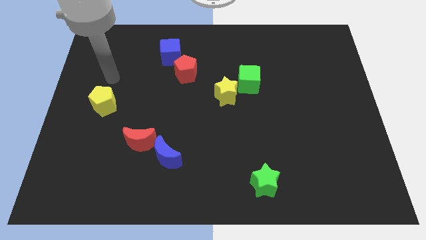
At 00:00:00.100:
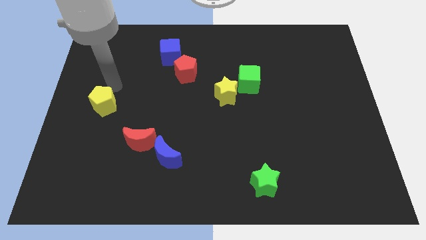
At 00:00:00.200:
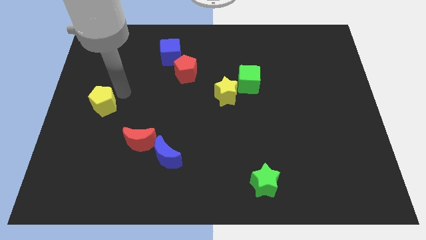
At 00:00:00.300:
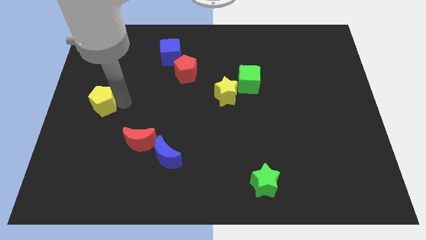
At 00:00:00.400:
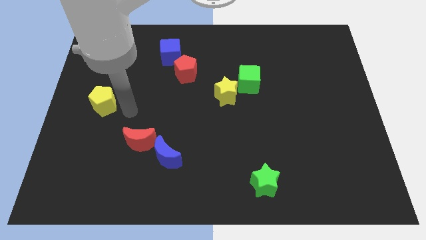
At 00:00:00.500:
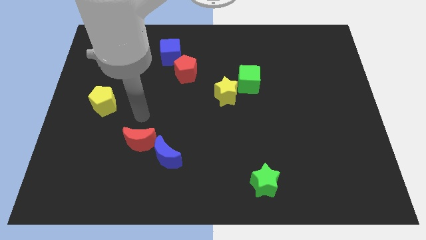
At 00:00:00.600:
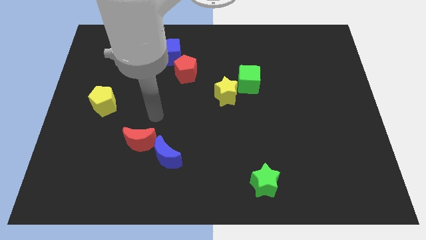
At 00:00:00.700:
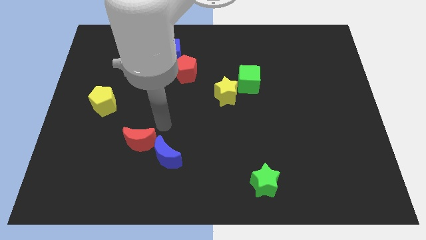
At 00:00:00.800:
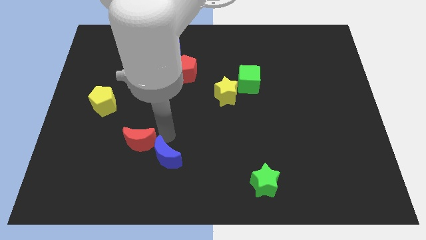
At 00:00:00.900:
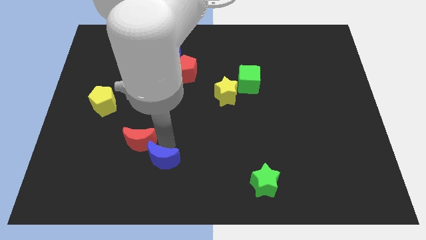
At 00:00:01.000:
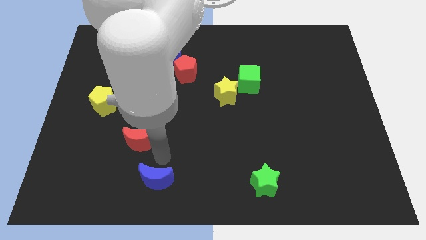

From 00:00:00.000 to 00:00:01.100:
pull the red moon apart from the blue moon

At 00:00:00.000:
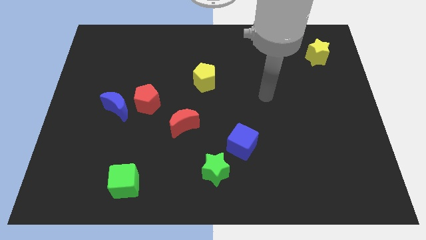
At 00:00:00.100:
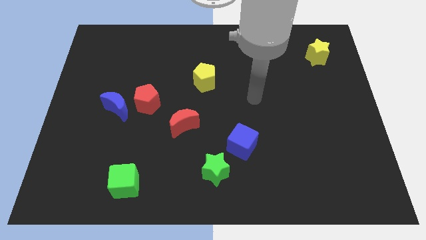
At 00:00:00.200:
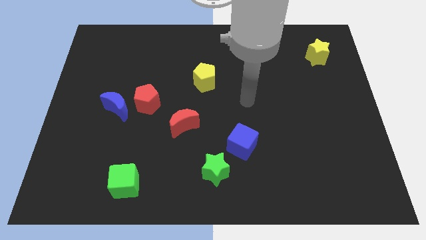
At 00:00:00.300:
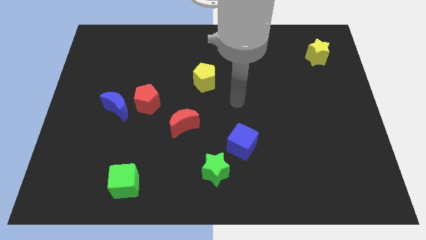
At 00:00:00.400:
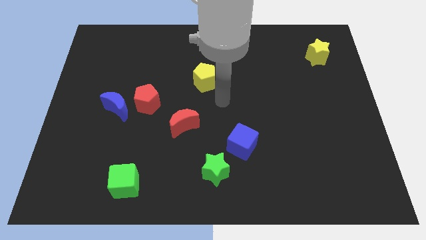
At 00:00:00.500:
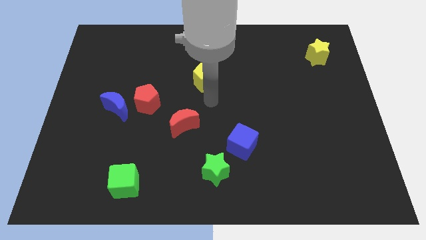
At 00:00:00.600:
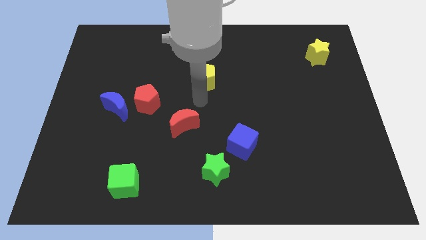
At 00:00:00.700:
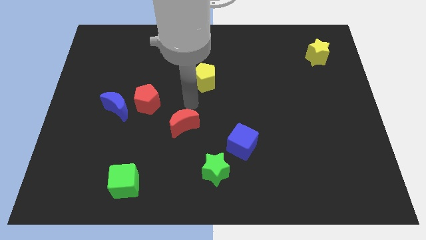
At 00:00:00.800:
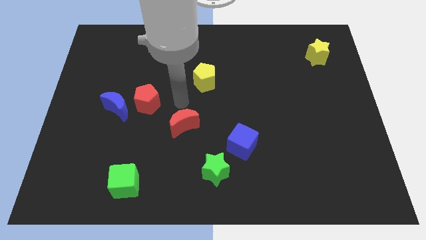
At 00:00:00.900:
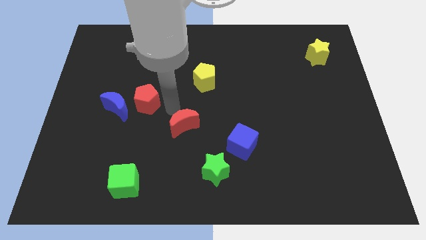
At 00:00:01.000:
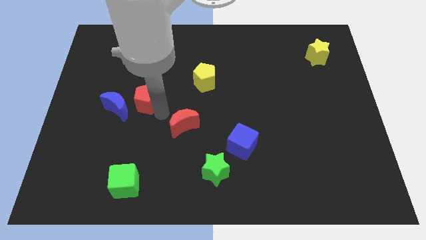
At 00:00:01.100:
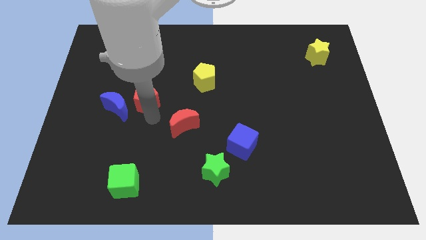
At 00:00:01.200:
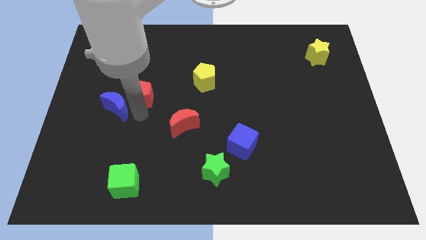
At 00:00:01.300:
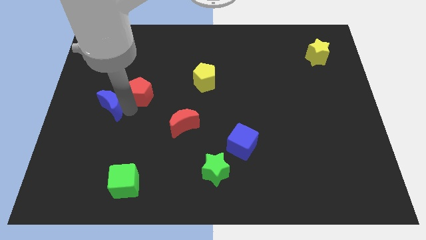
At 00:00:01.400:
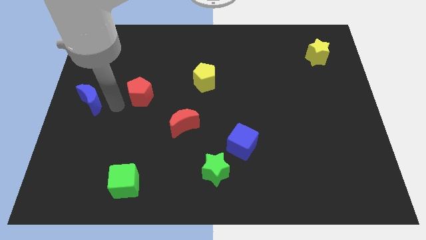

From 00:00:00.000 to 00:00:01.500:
move the red pentagon away from the blue moon

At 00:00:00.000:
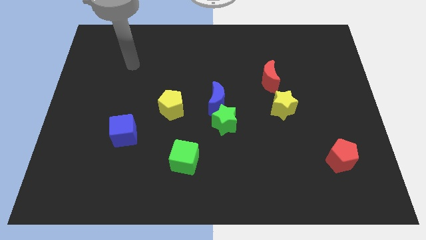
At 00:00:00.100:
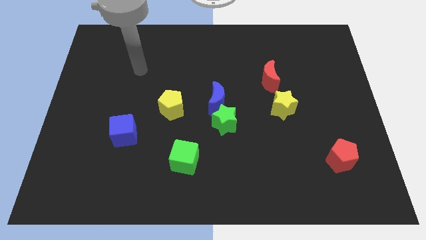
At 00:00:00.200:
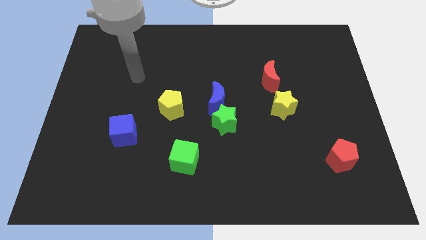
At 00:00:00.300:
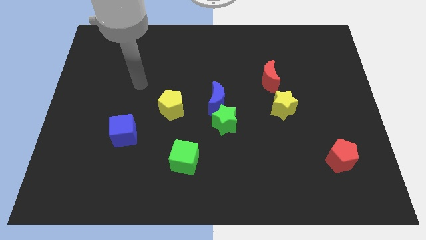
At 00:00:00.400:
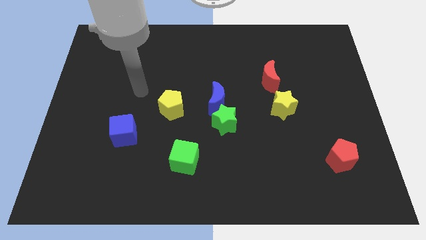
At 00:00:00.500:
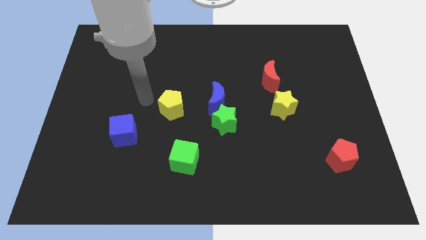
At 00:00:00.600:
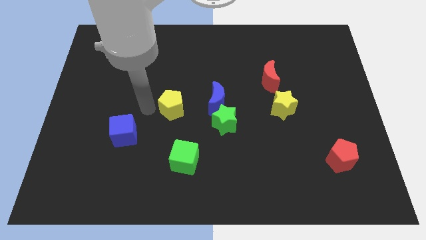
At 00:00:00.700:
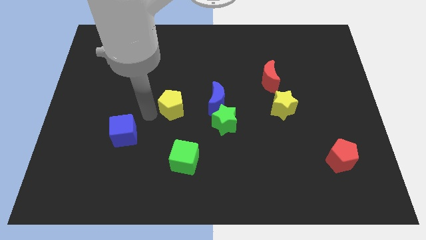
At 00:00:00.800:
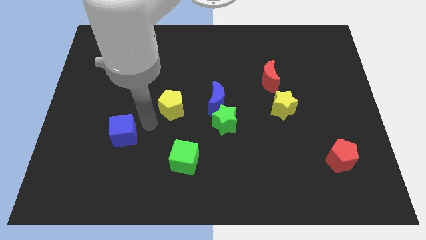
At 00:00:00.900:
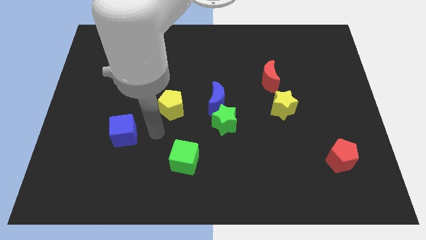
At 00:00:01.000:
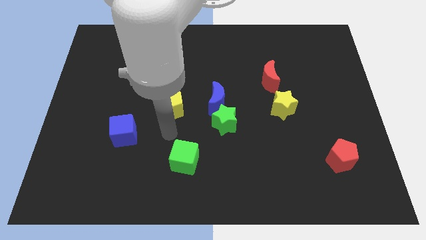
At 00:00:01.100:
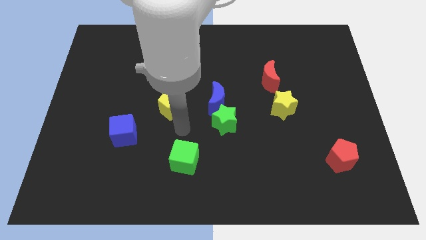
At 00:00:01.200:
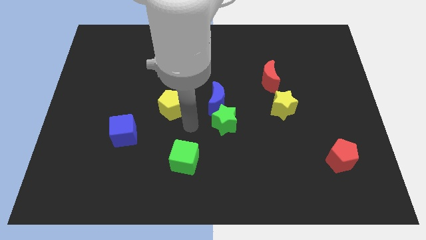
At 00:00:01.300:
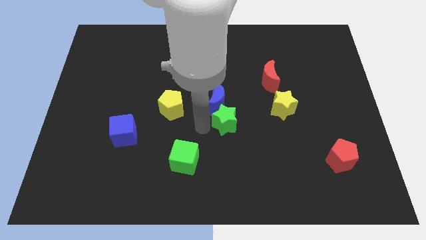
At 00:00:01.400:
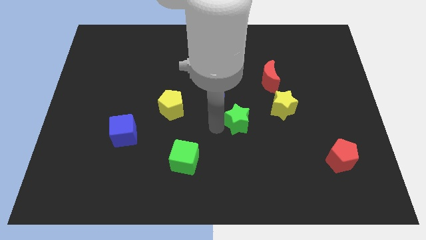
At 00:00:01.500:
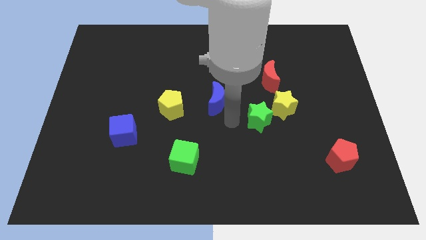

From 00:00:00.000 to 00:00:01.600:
pull the blue moon apart from the green star

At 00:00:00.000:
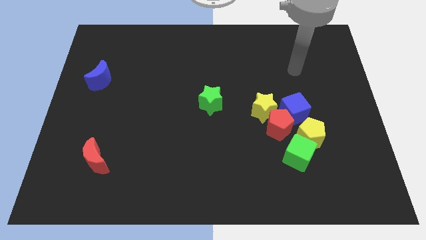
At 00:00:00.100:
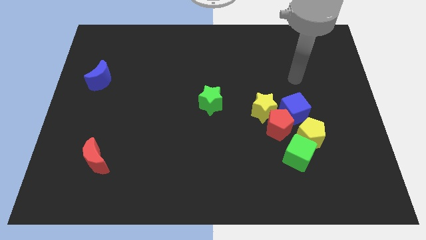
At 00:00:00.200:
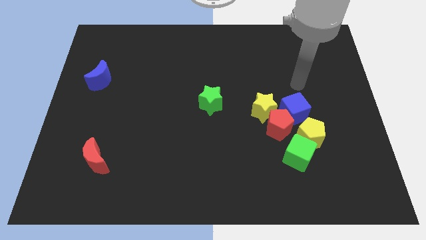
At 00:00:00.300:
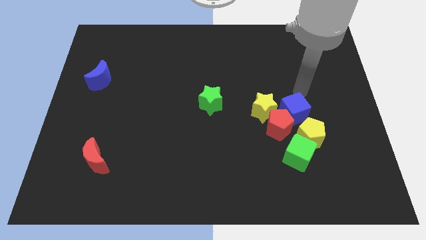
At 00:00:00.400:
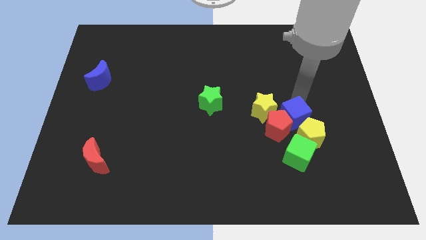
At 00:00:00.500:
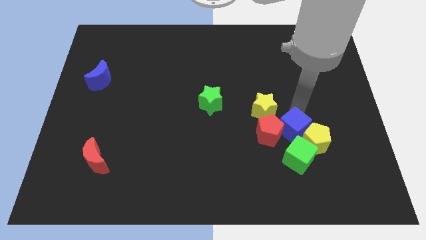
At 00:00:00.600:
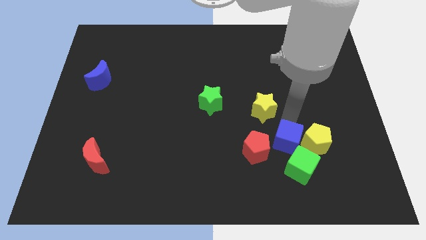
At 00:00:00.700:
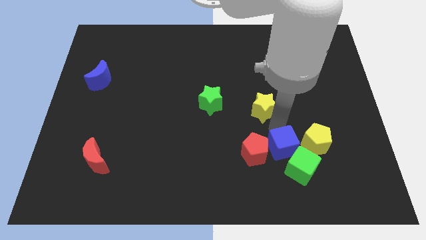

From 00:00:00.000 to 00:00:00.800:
pull the yellow star apart from the red pentagon and blue cube

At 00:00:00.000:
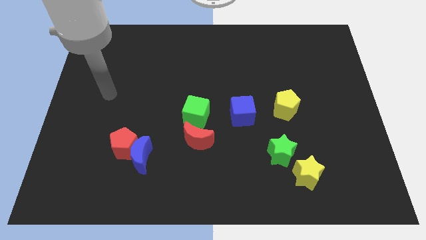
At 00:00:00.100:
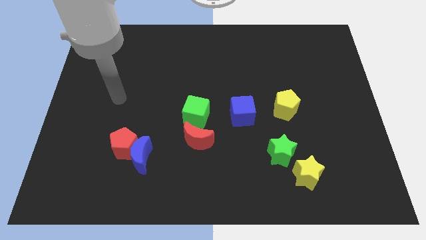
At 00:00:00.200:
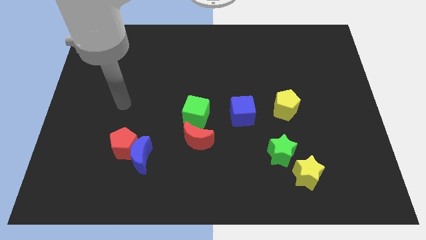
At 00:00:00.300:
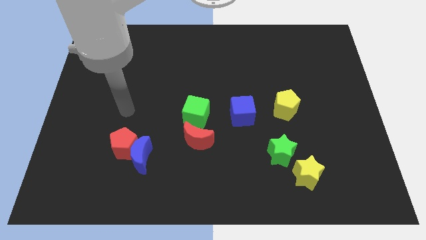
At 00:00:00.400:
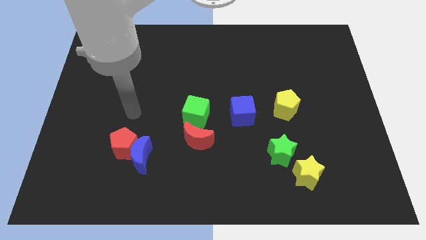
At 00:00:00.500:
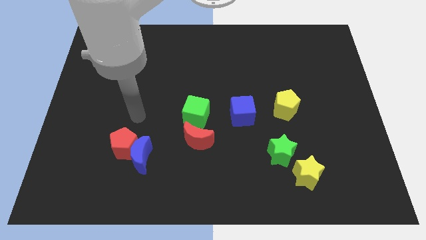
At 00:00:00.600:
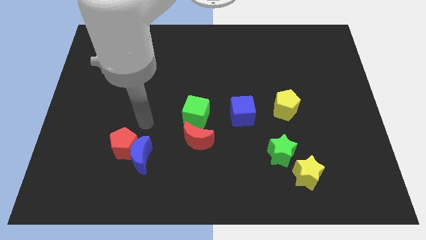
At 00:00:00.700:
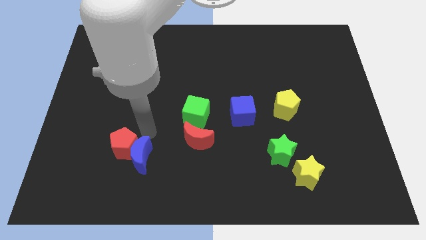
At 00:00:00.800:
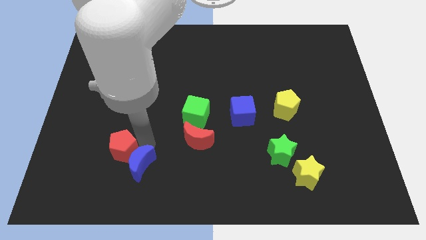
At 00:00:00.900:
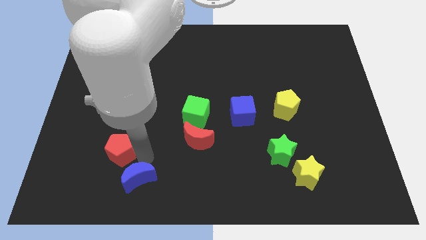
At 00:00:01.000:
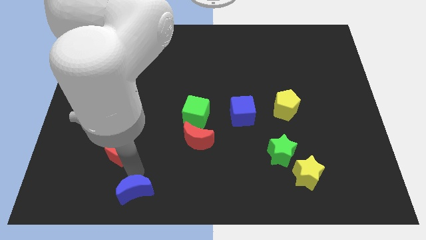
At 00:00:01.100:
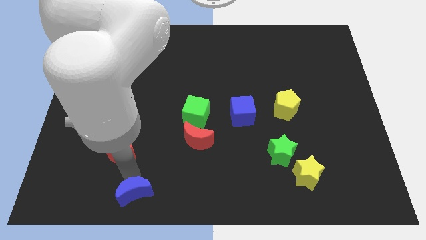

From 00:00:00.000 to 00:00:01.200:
pull the red pentagon apart from the blue moon

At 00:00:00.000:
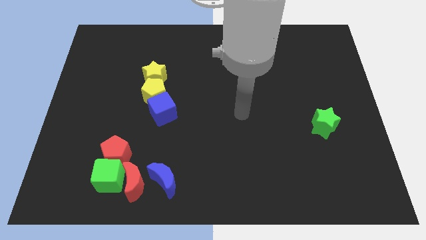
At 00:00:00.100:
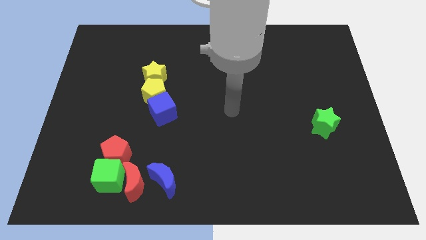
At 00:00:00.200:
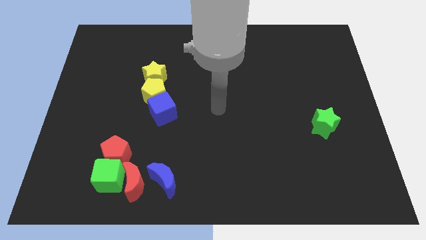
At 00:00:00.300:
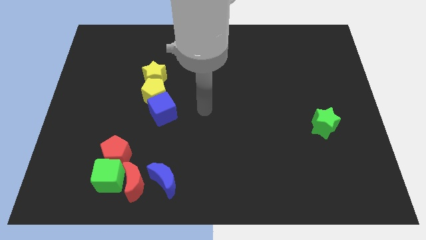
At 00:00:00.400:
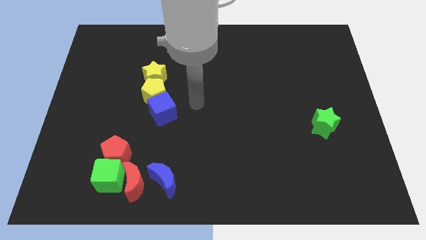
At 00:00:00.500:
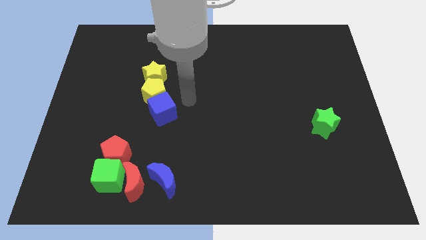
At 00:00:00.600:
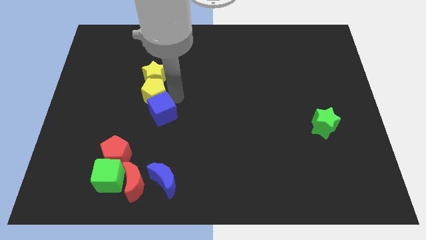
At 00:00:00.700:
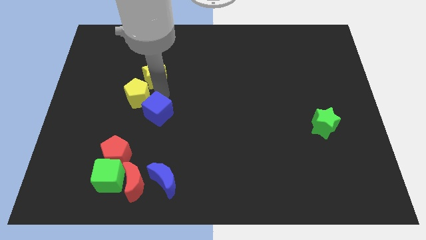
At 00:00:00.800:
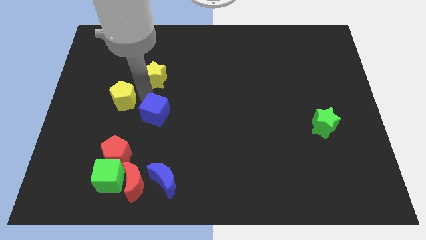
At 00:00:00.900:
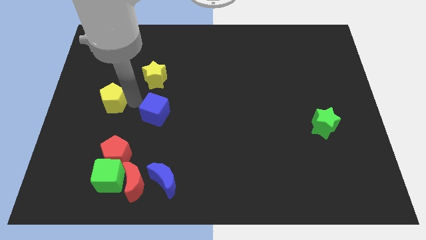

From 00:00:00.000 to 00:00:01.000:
pull the blue cube apart from the yellow pentagon

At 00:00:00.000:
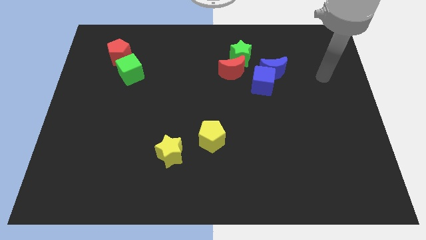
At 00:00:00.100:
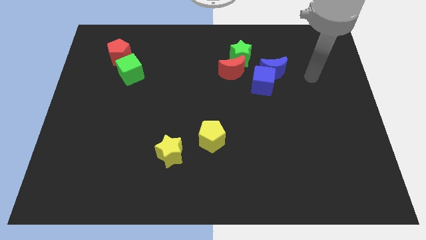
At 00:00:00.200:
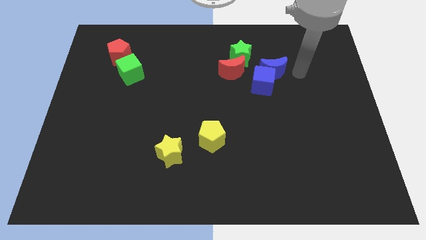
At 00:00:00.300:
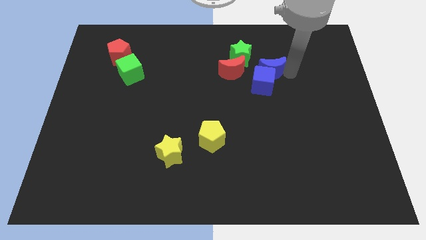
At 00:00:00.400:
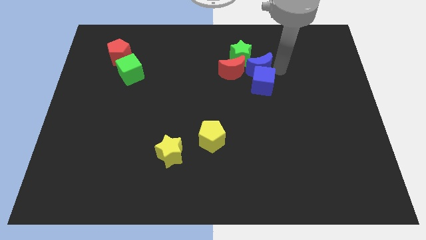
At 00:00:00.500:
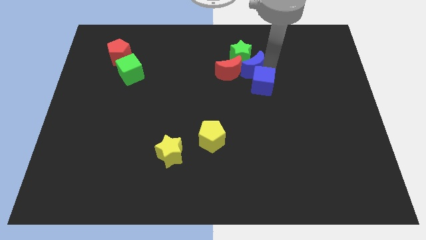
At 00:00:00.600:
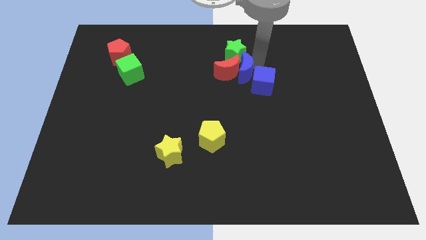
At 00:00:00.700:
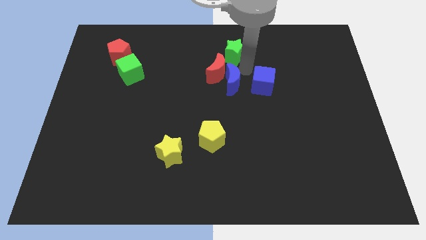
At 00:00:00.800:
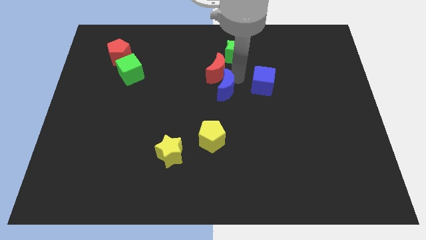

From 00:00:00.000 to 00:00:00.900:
separate the blue cube from the blue moon and red moon

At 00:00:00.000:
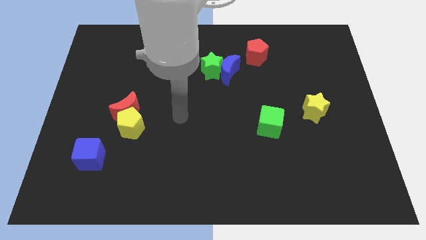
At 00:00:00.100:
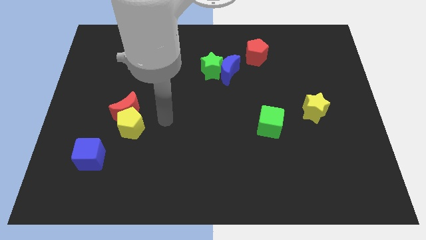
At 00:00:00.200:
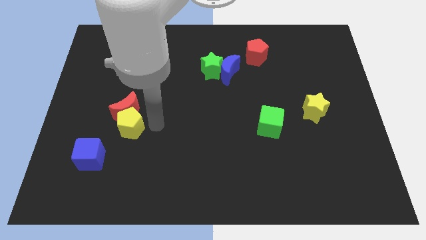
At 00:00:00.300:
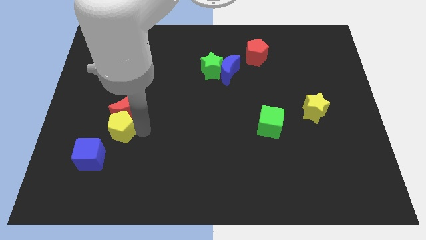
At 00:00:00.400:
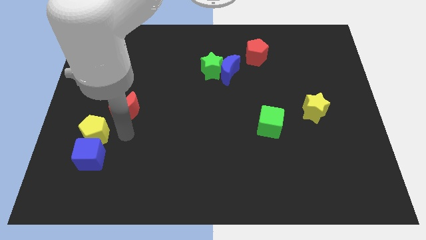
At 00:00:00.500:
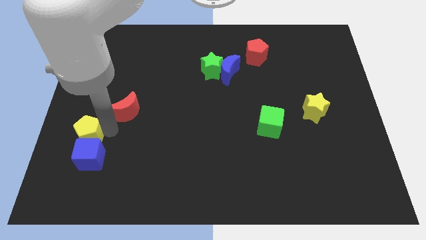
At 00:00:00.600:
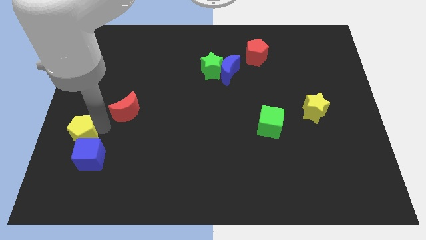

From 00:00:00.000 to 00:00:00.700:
pull the red moon apart from the yellow pentagon

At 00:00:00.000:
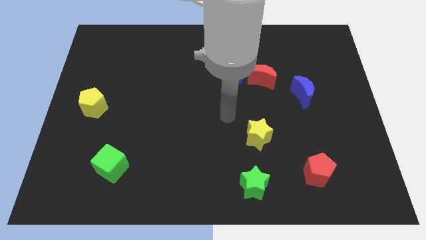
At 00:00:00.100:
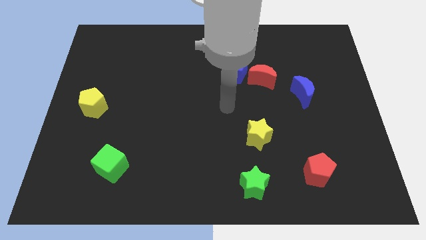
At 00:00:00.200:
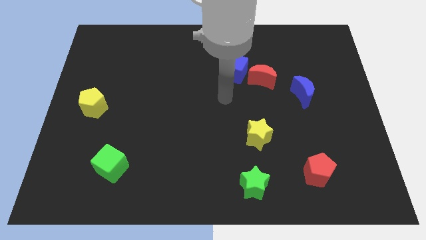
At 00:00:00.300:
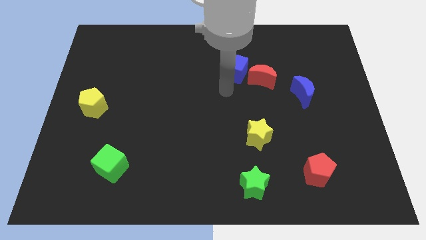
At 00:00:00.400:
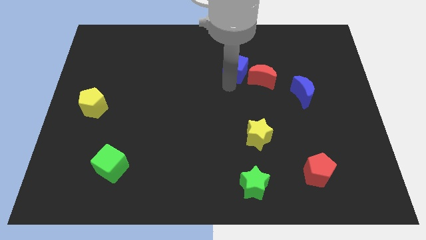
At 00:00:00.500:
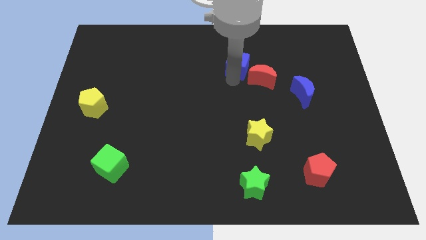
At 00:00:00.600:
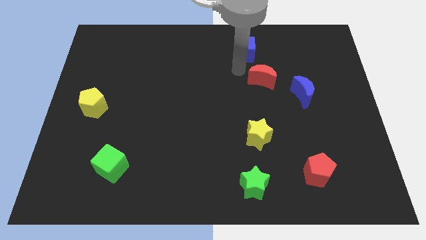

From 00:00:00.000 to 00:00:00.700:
pull the red moon apart from the blue cube
